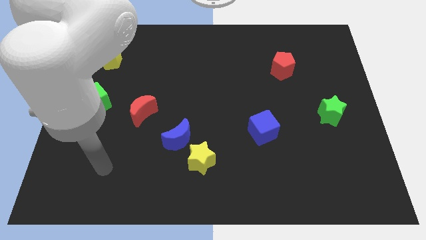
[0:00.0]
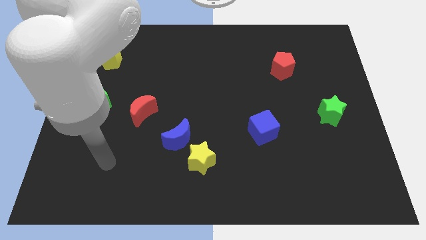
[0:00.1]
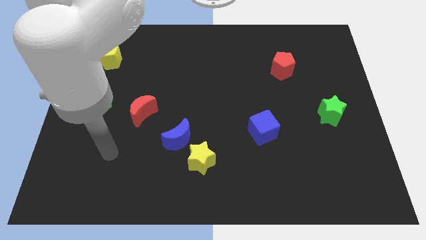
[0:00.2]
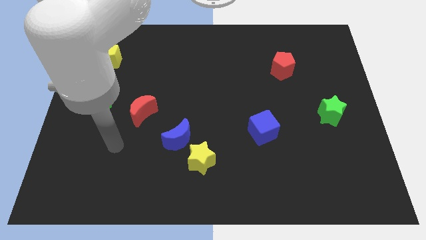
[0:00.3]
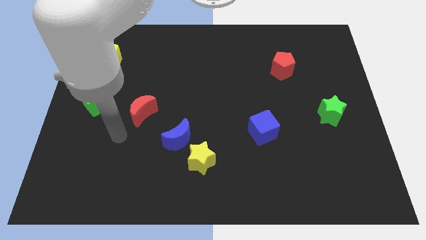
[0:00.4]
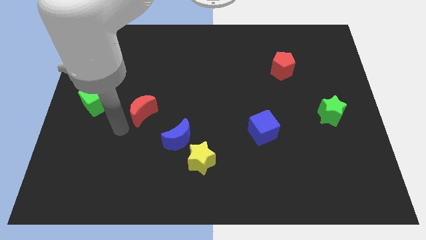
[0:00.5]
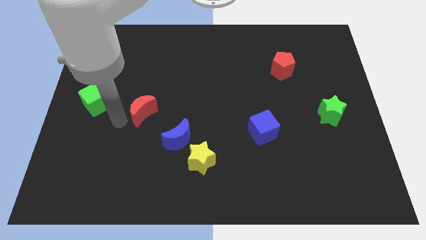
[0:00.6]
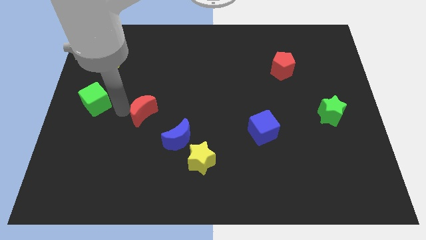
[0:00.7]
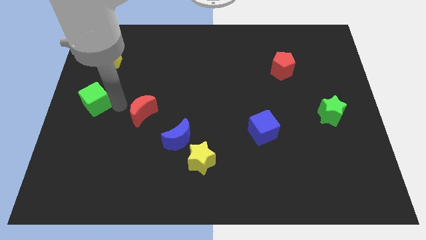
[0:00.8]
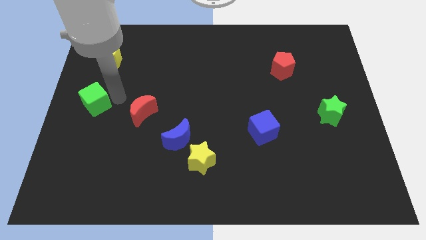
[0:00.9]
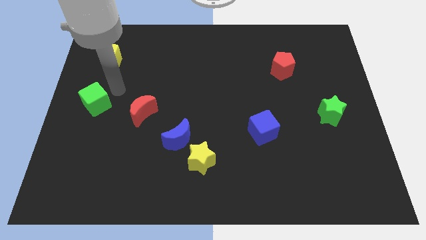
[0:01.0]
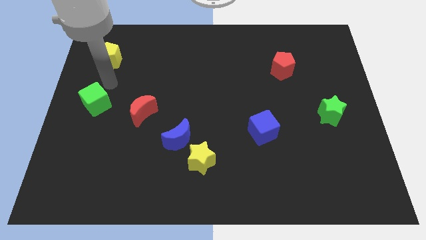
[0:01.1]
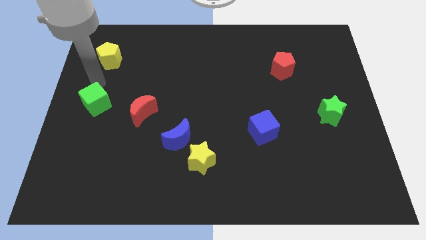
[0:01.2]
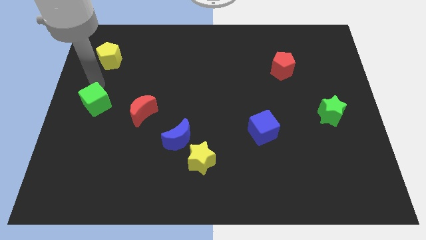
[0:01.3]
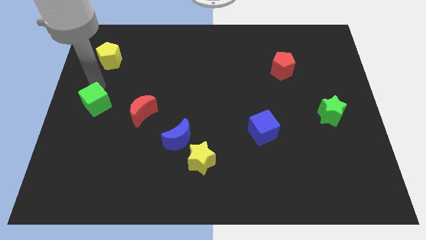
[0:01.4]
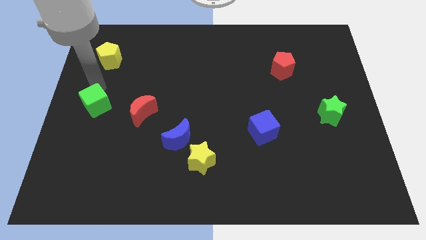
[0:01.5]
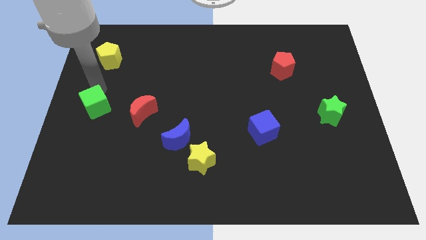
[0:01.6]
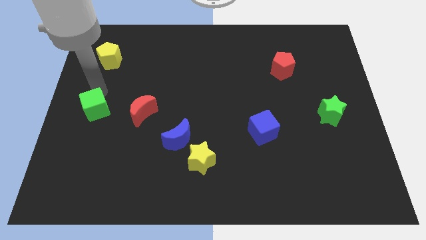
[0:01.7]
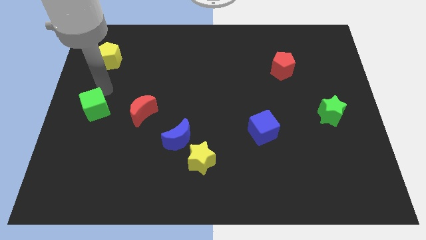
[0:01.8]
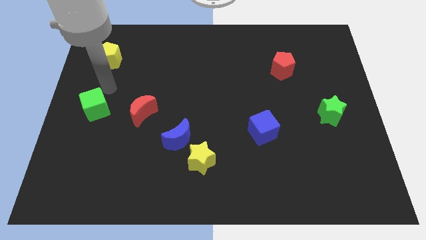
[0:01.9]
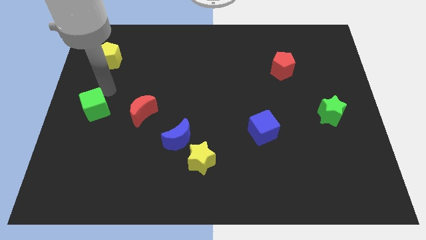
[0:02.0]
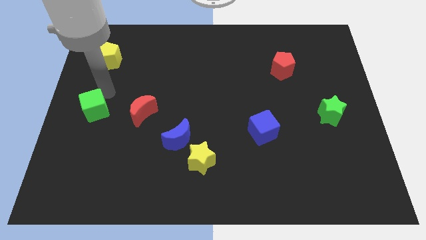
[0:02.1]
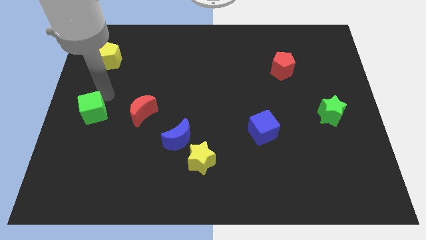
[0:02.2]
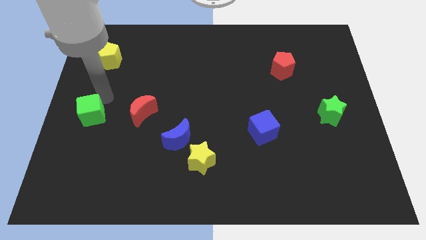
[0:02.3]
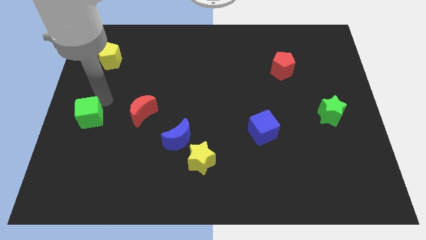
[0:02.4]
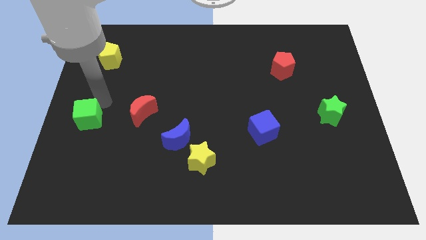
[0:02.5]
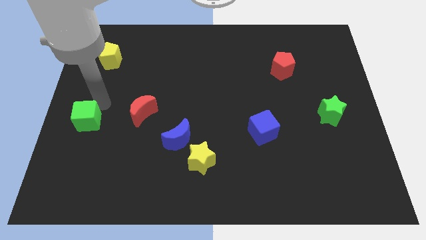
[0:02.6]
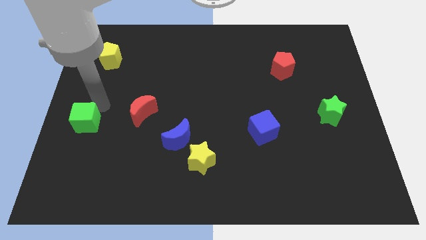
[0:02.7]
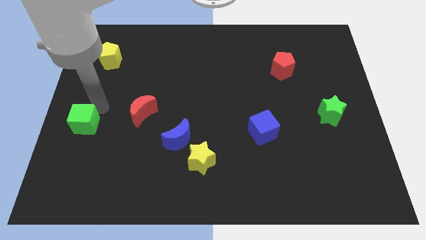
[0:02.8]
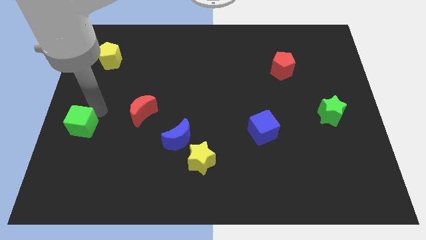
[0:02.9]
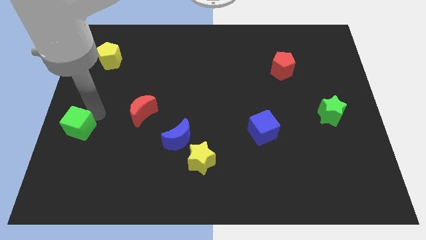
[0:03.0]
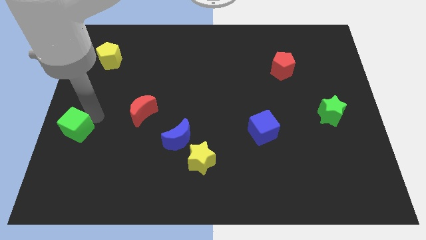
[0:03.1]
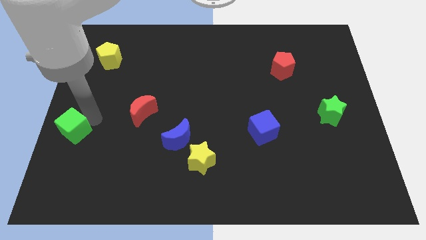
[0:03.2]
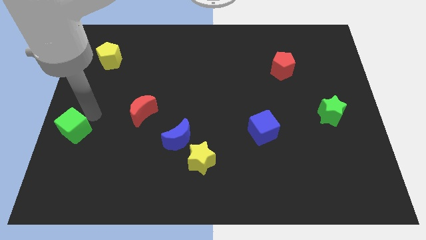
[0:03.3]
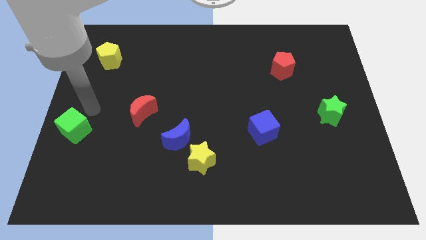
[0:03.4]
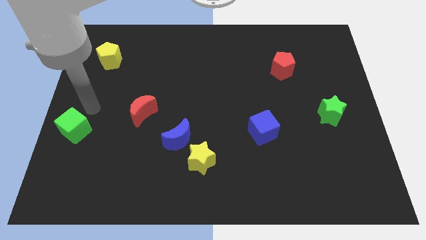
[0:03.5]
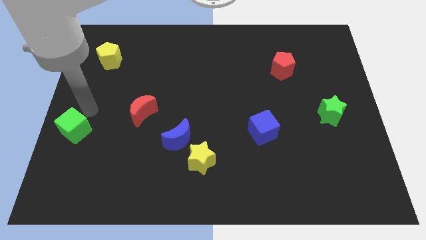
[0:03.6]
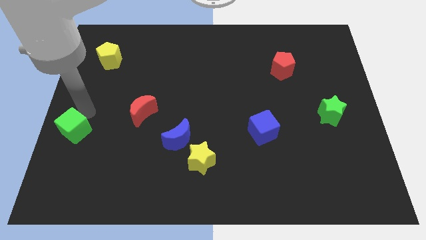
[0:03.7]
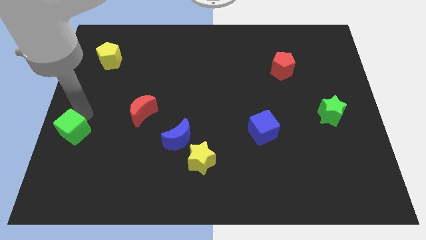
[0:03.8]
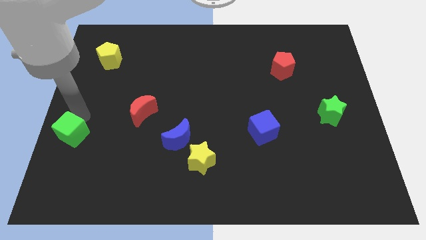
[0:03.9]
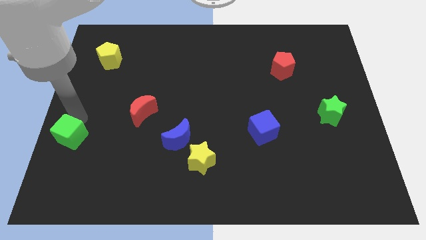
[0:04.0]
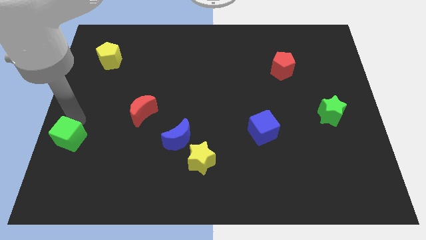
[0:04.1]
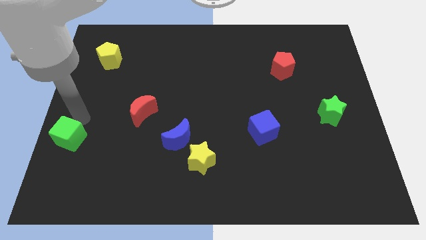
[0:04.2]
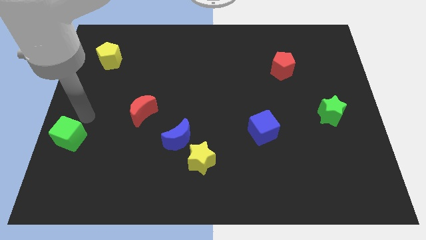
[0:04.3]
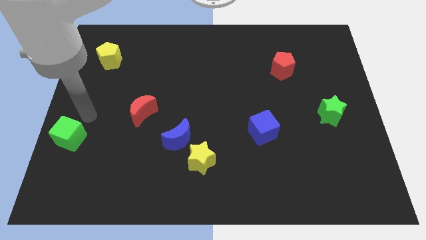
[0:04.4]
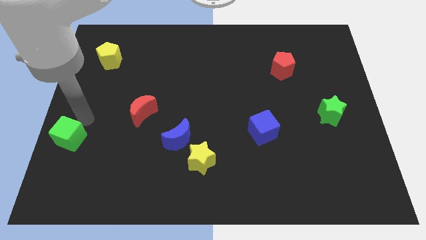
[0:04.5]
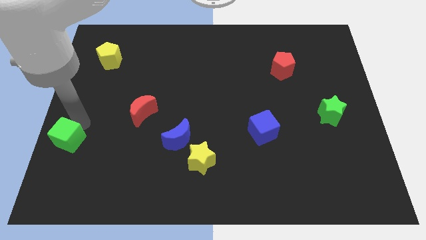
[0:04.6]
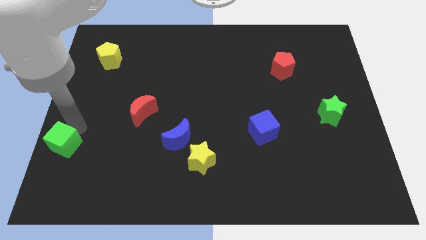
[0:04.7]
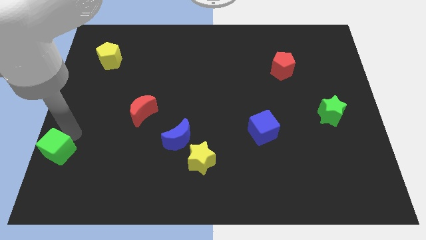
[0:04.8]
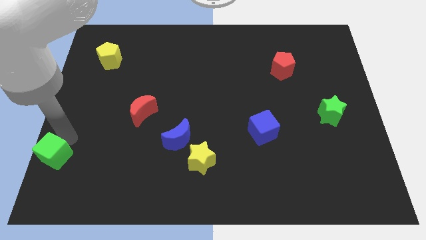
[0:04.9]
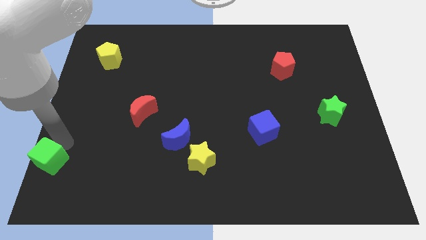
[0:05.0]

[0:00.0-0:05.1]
put the green cube to the lower left corner
